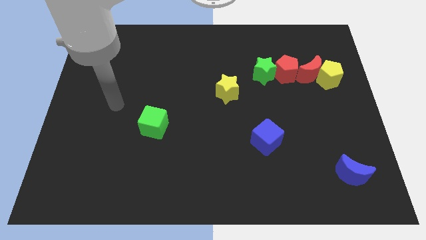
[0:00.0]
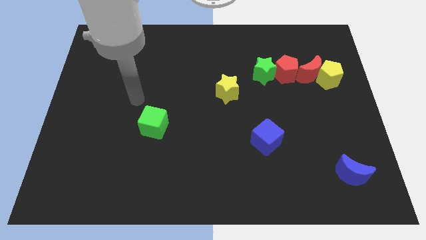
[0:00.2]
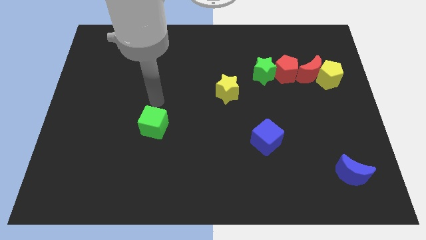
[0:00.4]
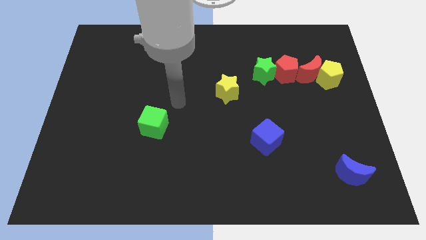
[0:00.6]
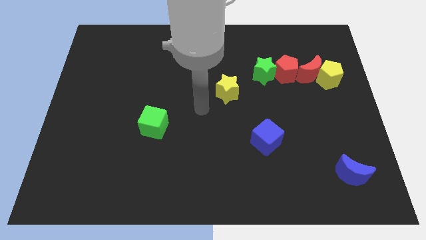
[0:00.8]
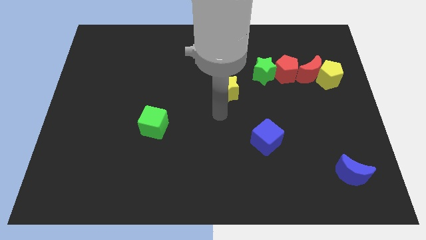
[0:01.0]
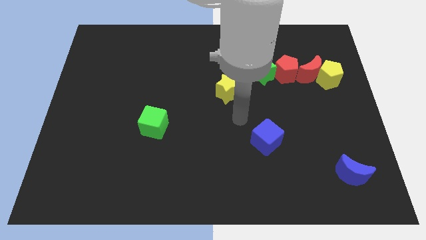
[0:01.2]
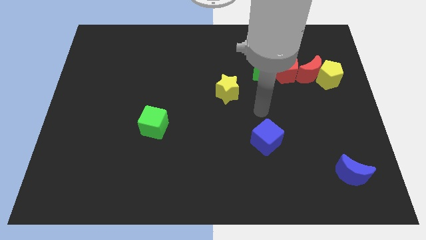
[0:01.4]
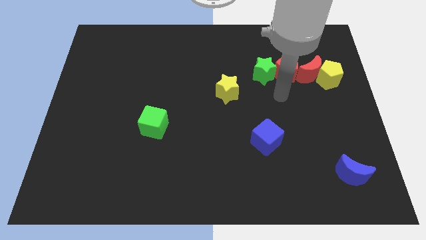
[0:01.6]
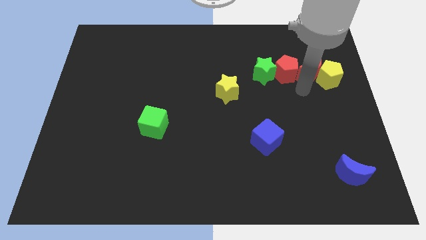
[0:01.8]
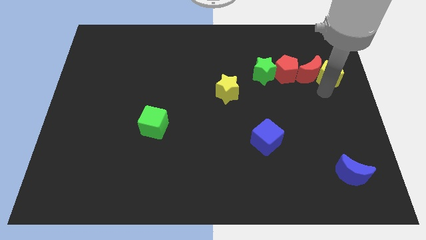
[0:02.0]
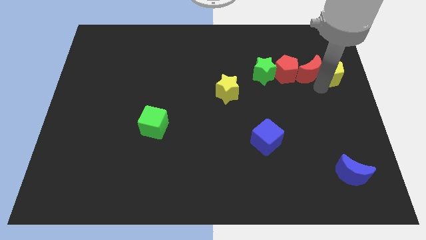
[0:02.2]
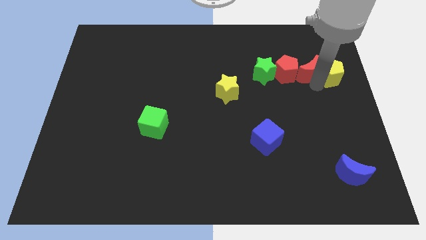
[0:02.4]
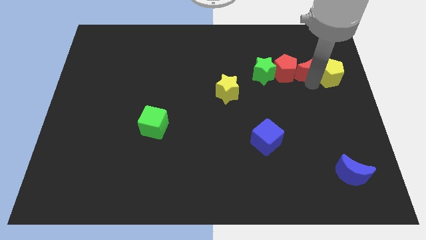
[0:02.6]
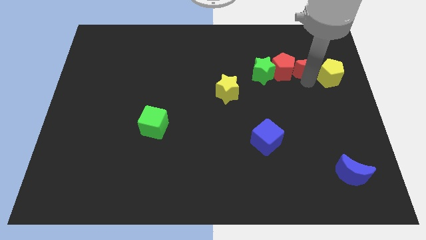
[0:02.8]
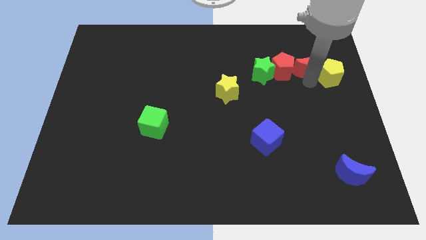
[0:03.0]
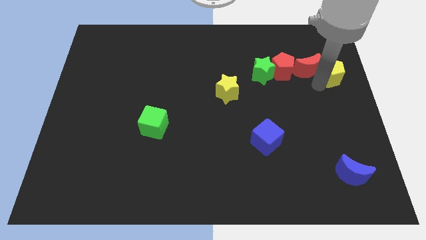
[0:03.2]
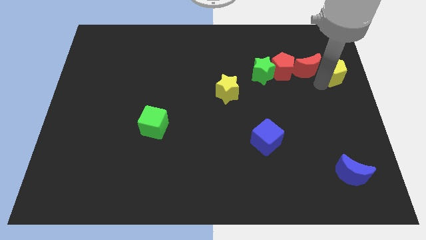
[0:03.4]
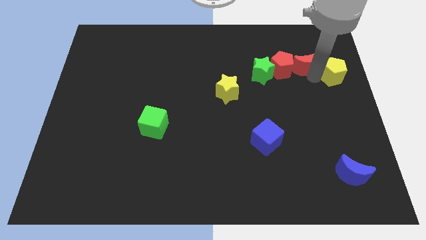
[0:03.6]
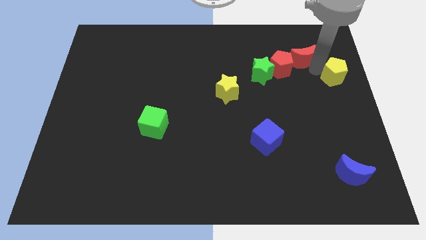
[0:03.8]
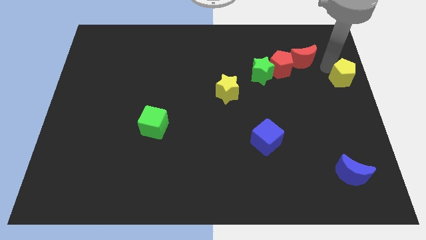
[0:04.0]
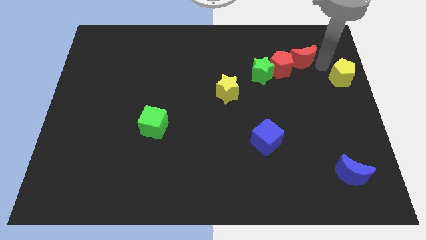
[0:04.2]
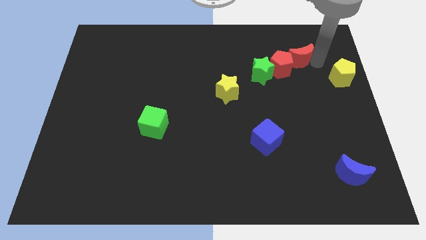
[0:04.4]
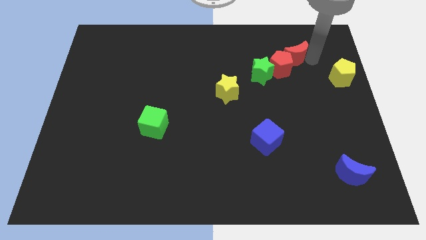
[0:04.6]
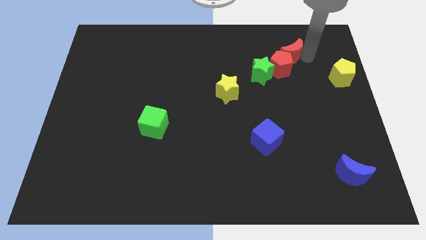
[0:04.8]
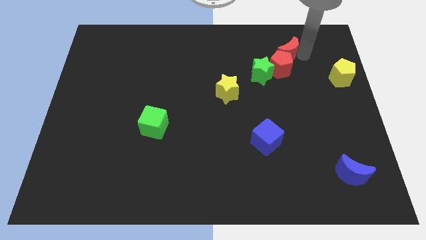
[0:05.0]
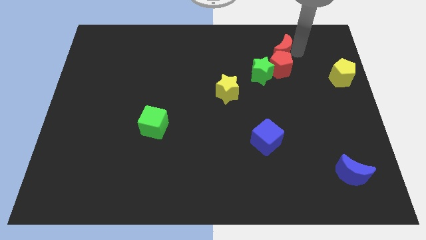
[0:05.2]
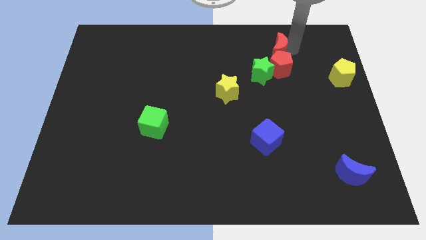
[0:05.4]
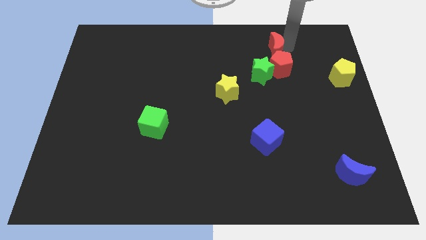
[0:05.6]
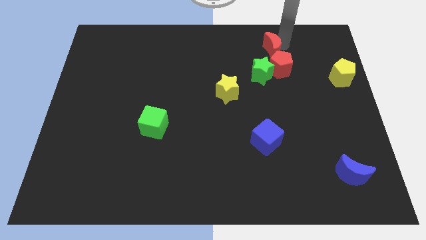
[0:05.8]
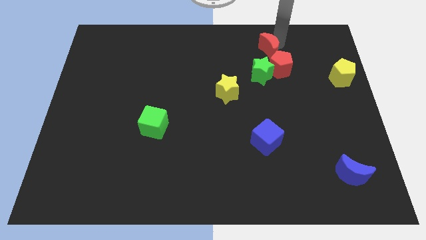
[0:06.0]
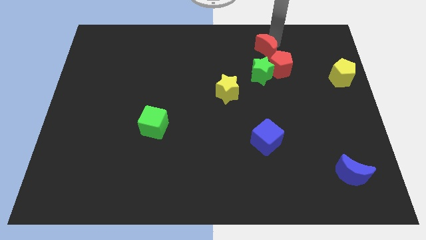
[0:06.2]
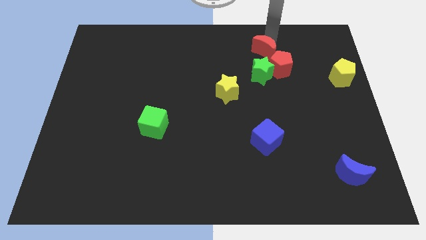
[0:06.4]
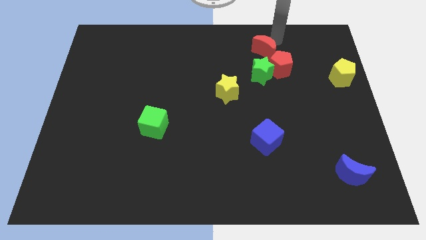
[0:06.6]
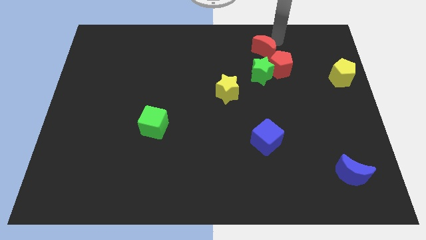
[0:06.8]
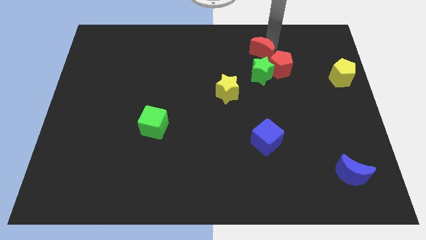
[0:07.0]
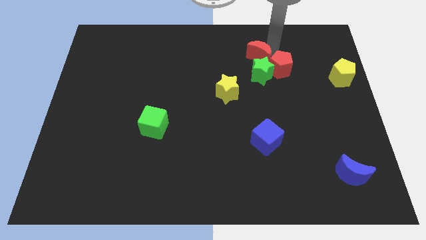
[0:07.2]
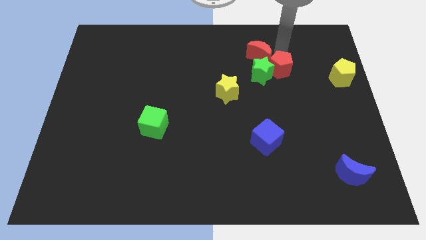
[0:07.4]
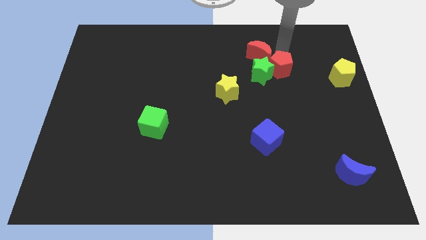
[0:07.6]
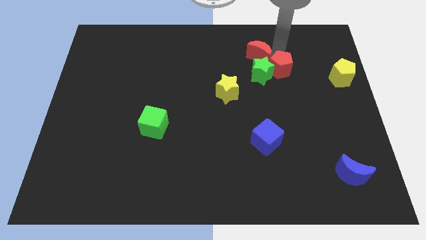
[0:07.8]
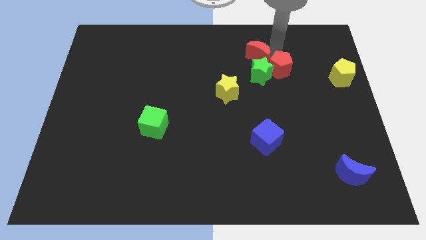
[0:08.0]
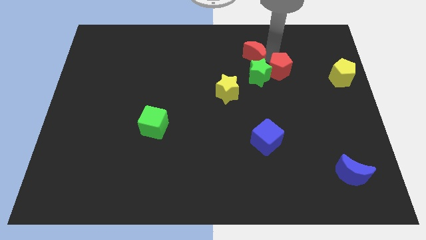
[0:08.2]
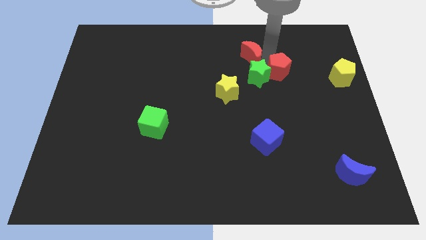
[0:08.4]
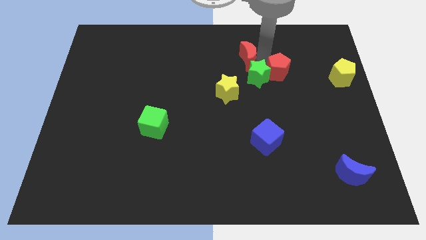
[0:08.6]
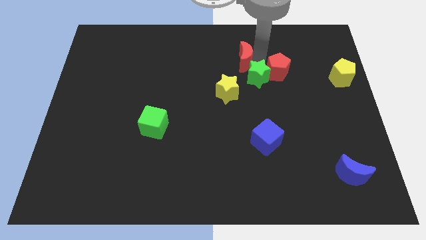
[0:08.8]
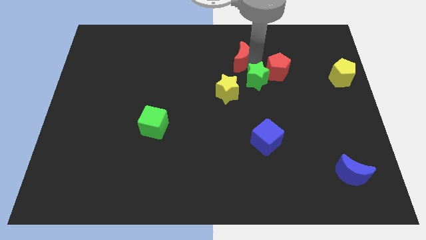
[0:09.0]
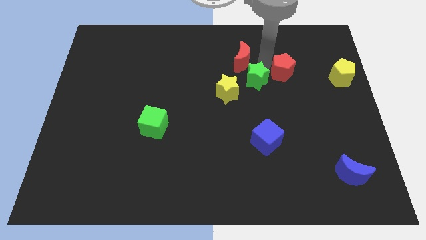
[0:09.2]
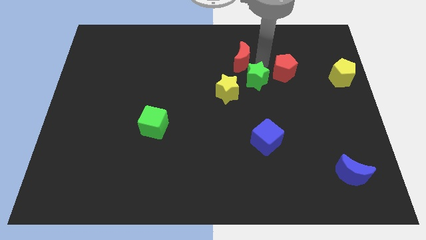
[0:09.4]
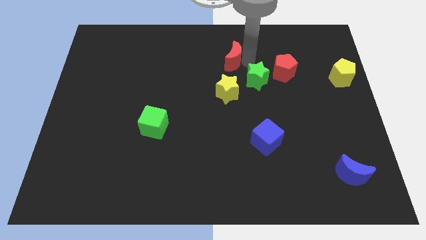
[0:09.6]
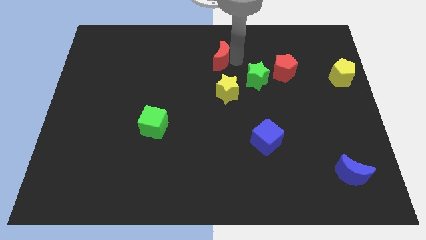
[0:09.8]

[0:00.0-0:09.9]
slide the red moon left

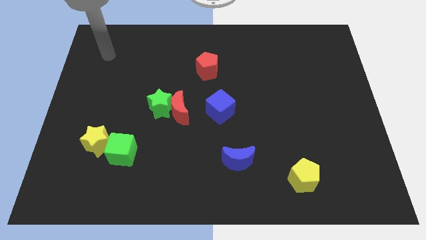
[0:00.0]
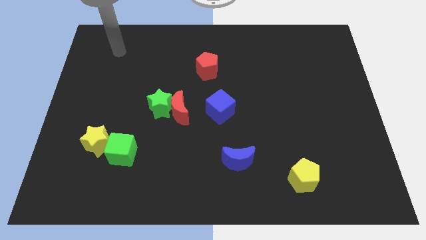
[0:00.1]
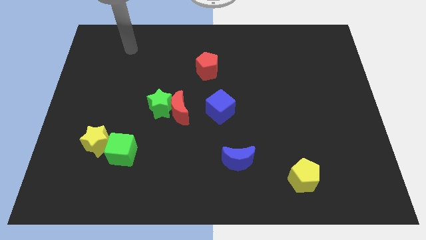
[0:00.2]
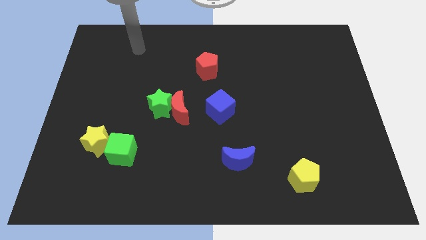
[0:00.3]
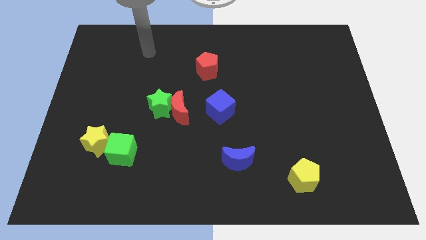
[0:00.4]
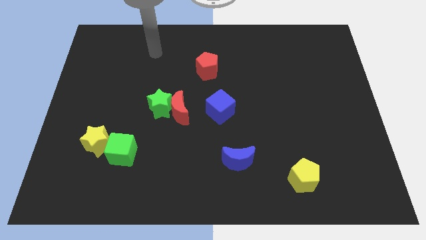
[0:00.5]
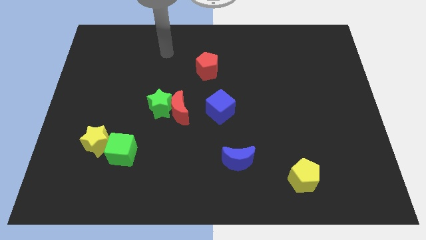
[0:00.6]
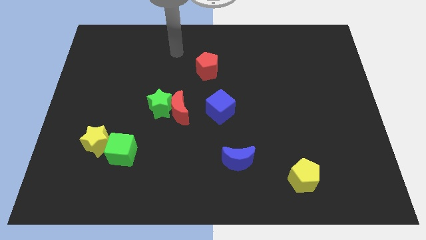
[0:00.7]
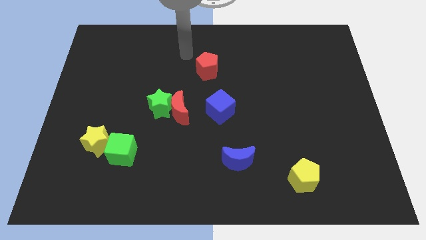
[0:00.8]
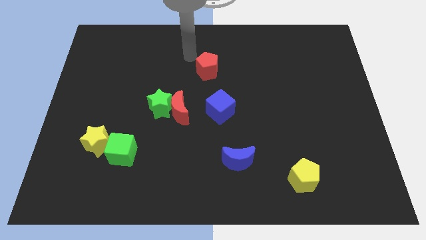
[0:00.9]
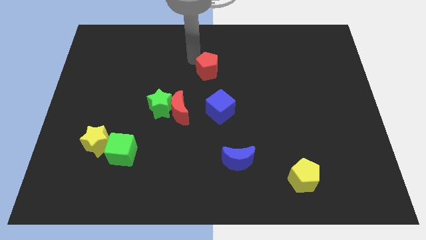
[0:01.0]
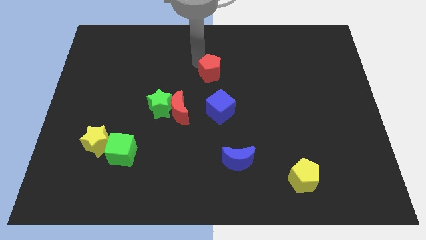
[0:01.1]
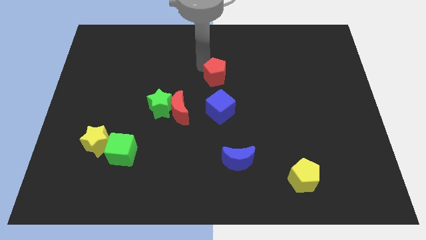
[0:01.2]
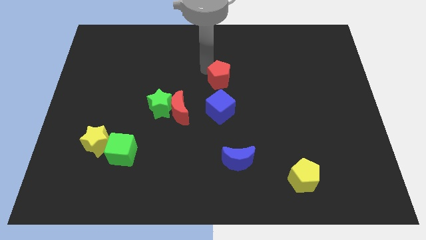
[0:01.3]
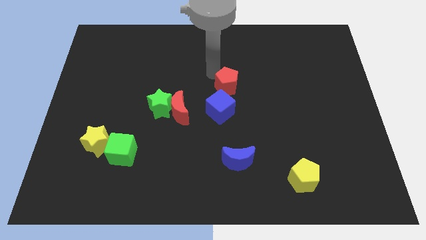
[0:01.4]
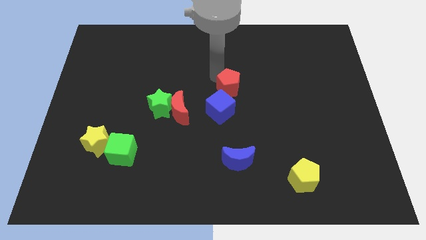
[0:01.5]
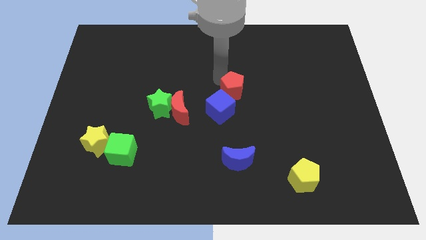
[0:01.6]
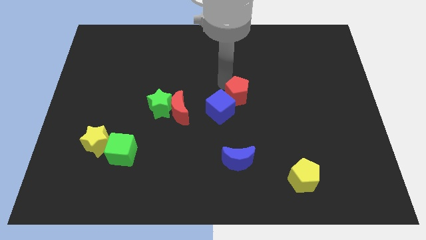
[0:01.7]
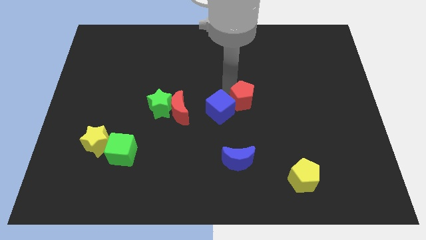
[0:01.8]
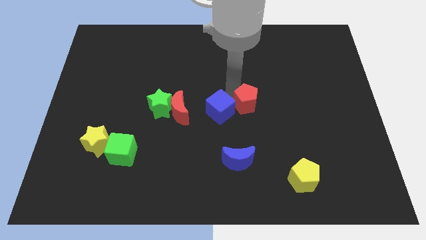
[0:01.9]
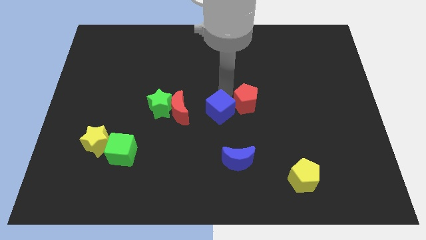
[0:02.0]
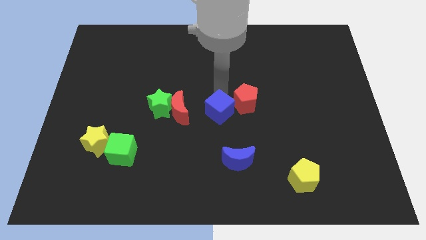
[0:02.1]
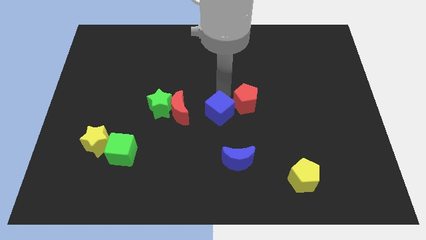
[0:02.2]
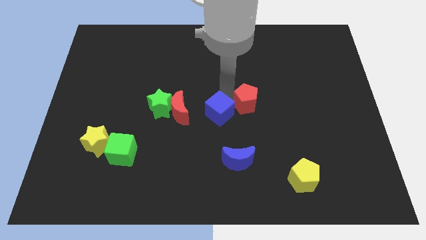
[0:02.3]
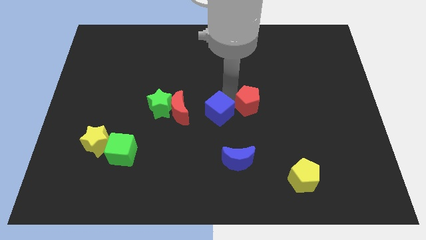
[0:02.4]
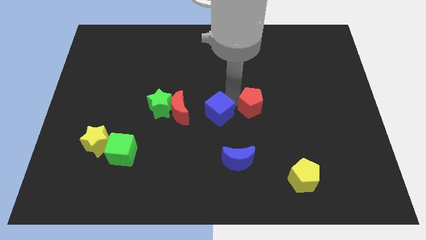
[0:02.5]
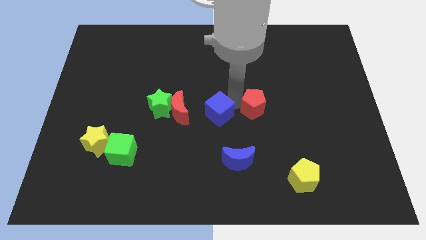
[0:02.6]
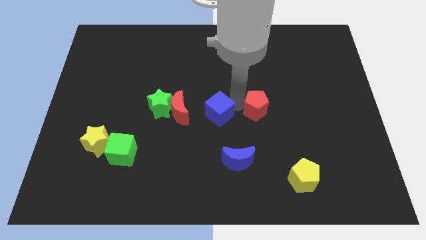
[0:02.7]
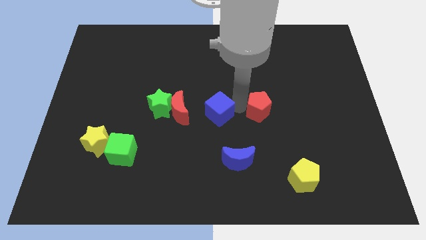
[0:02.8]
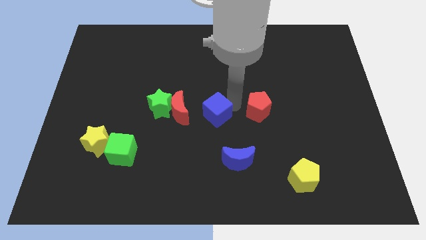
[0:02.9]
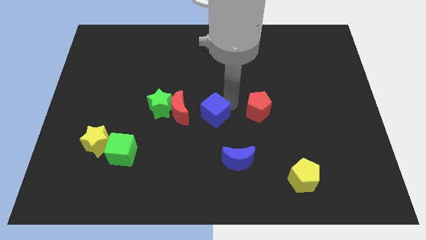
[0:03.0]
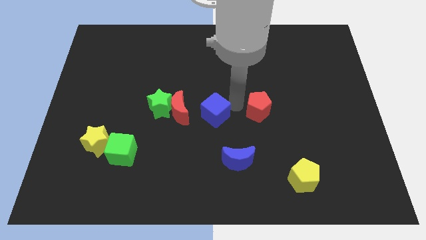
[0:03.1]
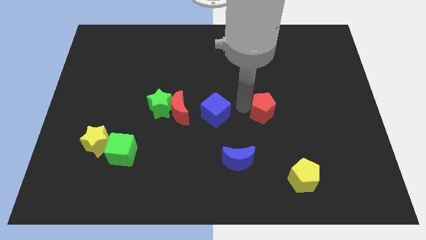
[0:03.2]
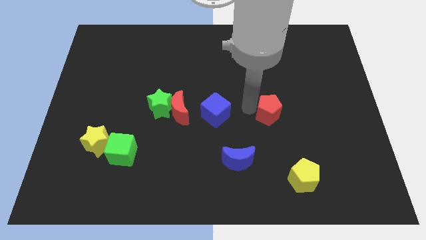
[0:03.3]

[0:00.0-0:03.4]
slide the red pentagon downwards and then to the right
